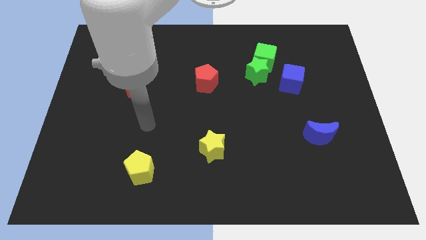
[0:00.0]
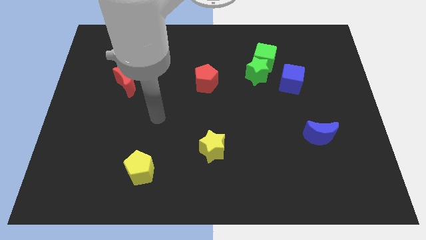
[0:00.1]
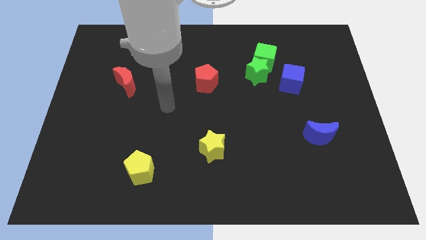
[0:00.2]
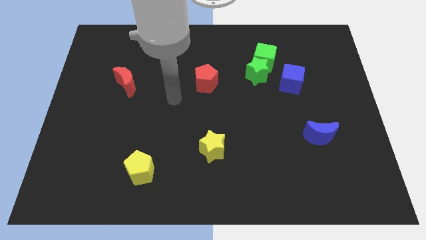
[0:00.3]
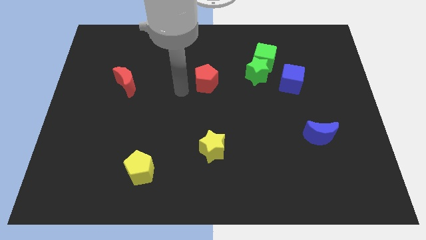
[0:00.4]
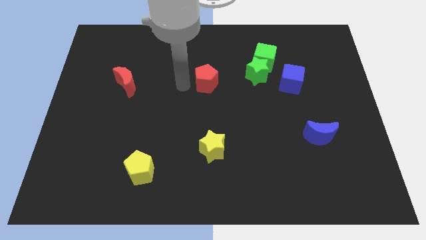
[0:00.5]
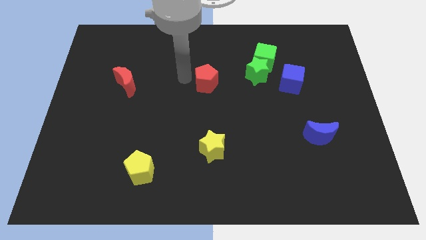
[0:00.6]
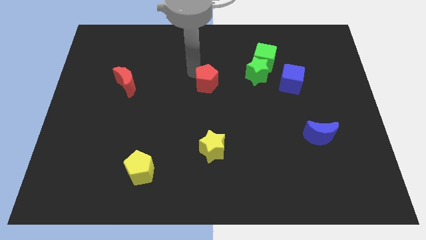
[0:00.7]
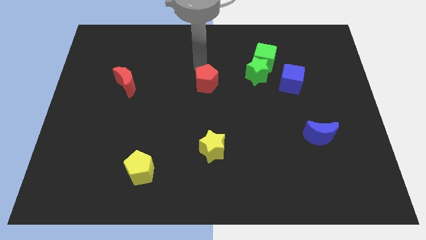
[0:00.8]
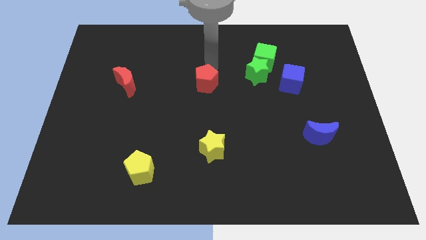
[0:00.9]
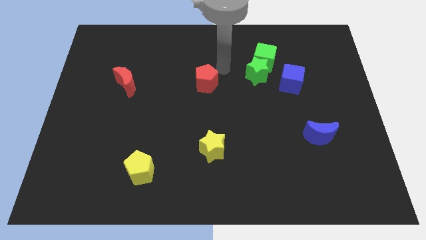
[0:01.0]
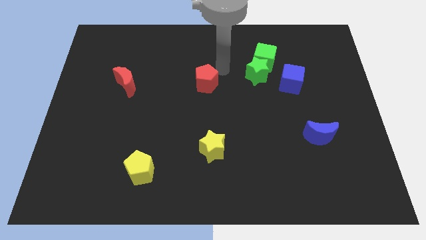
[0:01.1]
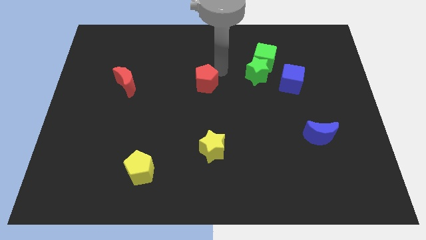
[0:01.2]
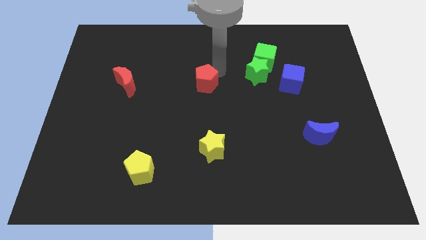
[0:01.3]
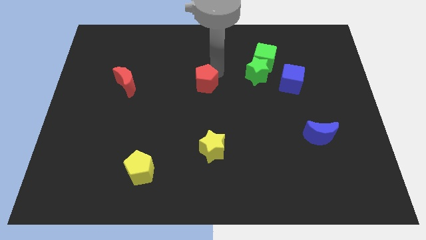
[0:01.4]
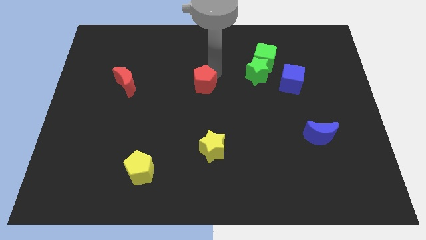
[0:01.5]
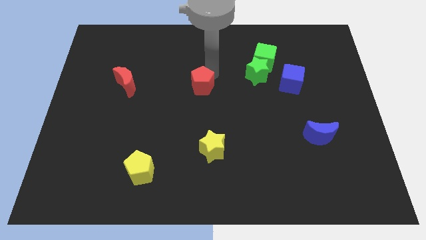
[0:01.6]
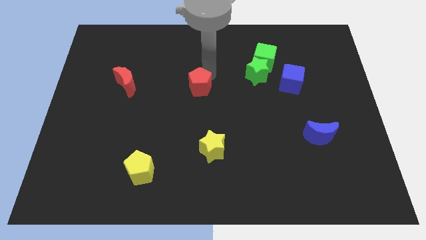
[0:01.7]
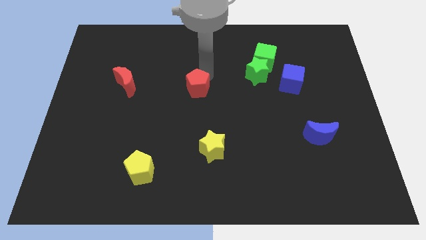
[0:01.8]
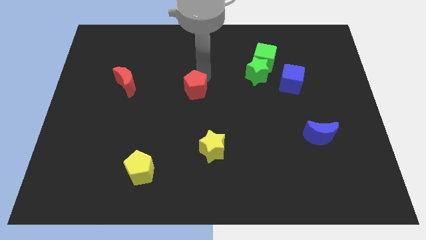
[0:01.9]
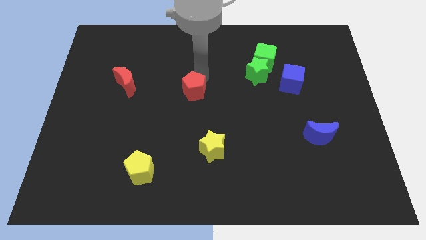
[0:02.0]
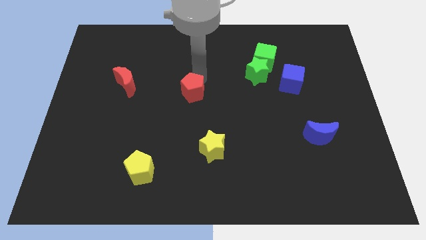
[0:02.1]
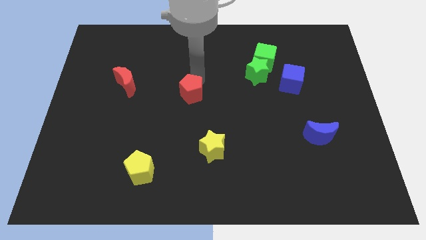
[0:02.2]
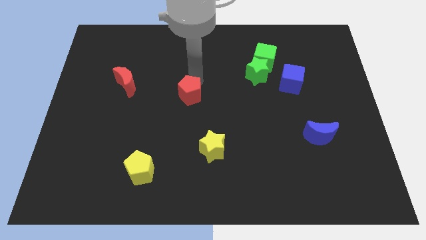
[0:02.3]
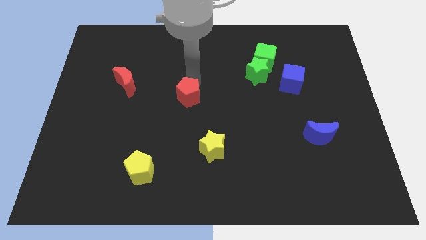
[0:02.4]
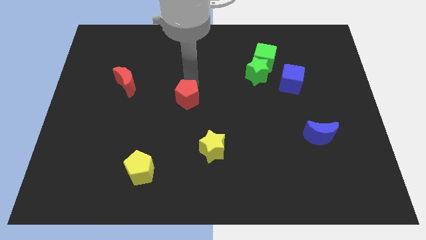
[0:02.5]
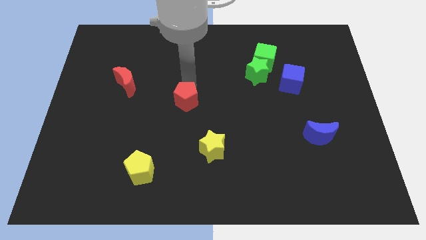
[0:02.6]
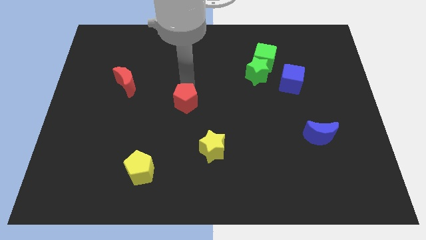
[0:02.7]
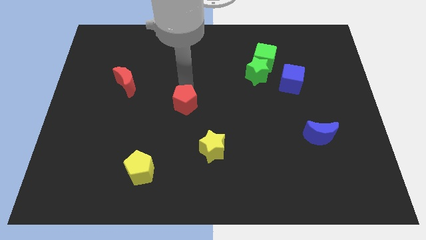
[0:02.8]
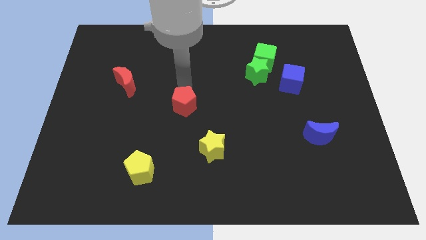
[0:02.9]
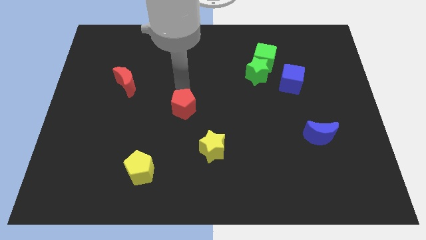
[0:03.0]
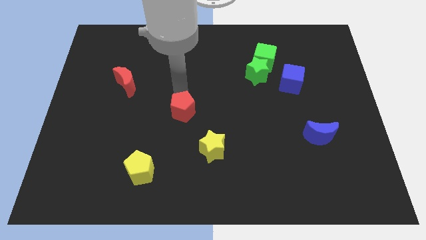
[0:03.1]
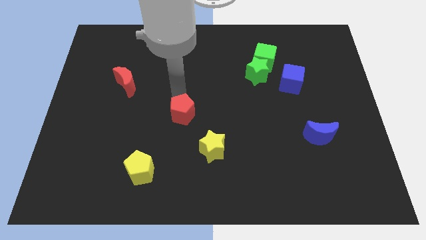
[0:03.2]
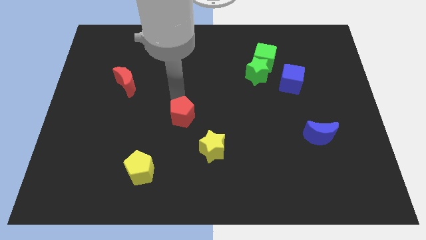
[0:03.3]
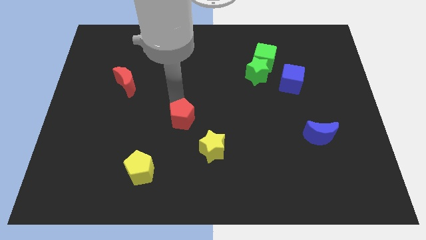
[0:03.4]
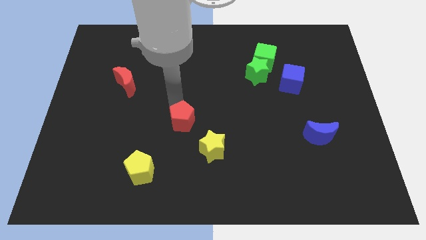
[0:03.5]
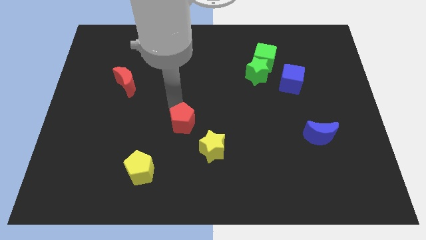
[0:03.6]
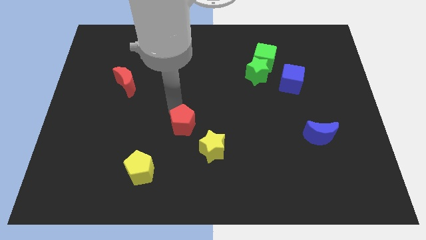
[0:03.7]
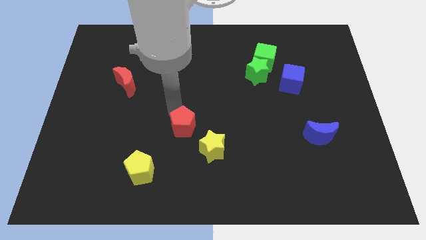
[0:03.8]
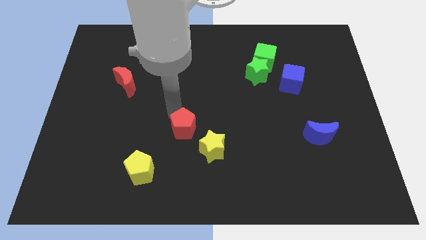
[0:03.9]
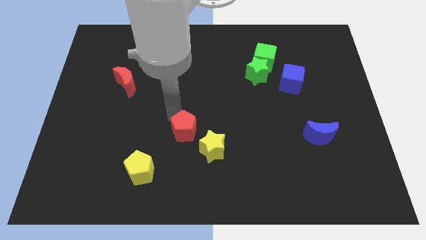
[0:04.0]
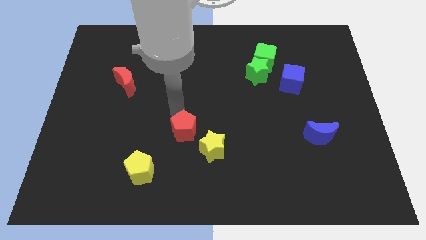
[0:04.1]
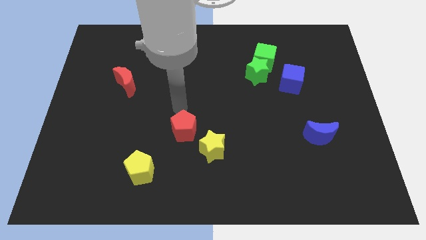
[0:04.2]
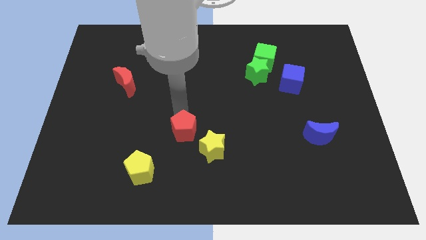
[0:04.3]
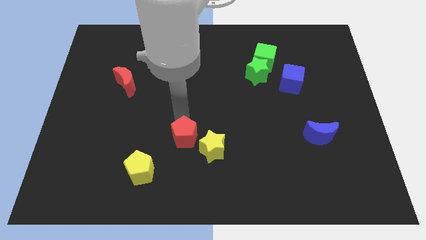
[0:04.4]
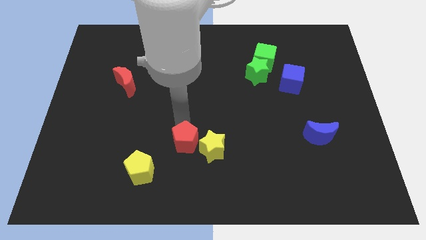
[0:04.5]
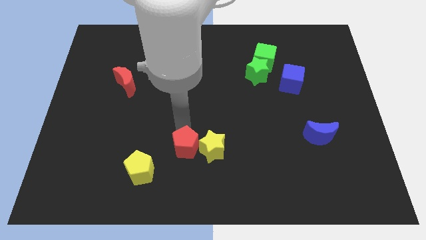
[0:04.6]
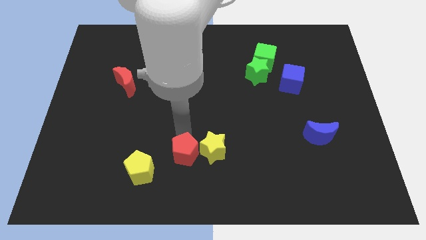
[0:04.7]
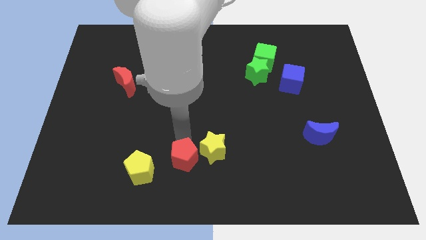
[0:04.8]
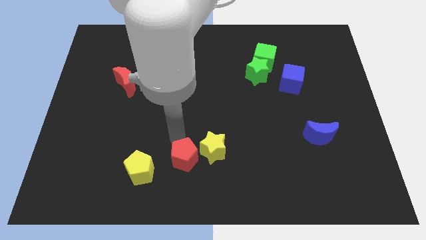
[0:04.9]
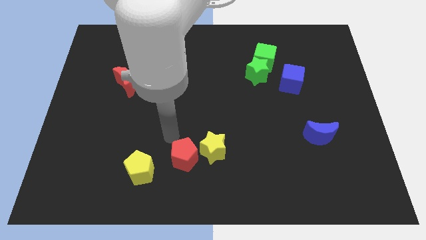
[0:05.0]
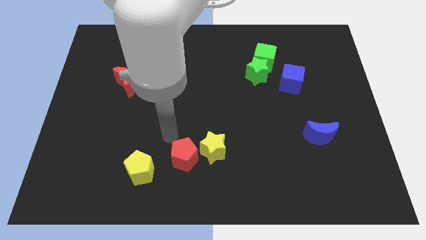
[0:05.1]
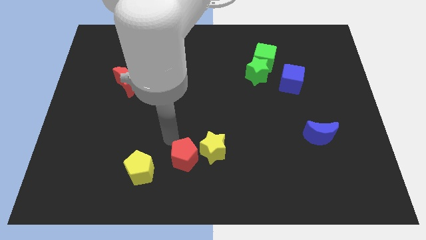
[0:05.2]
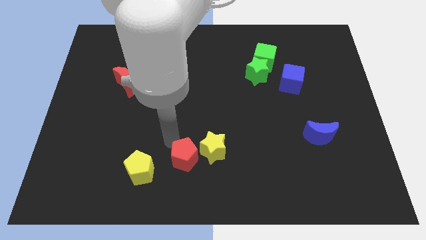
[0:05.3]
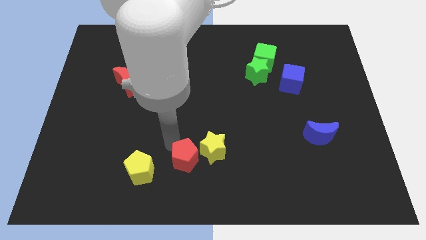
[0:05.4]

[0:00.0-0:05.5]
slide the red pentagon to the bottom side

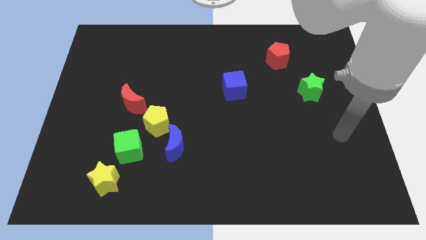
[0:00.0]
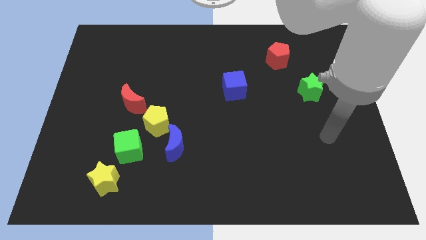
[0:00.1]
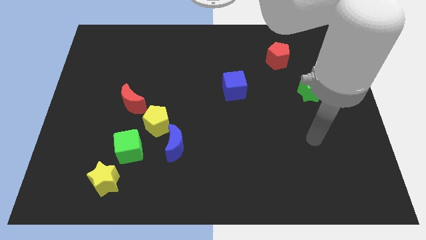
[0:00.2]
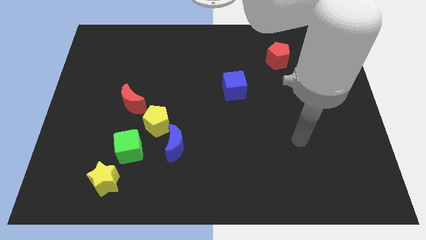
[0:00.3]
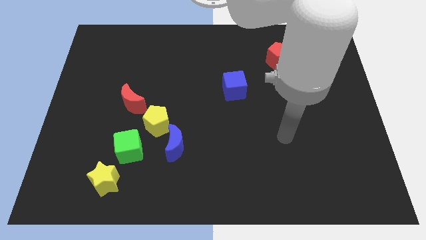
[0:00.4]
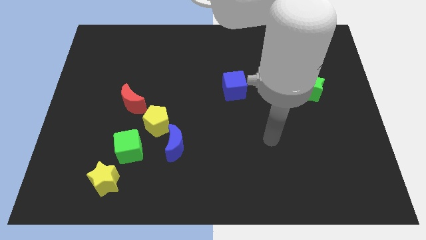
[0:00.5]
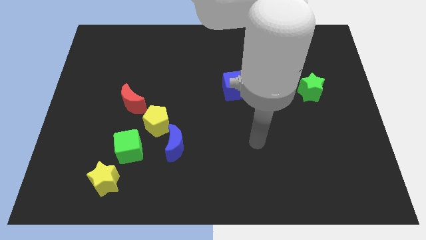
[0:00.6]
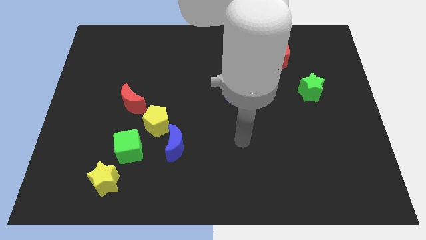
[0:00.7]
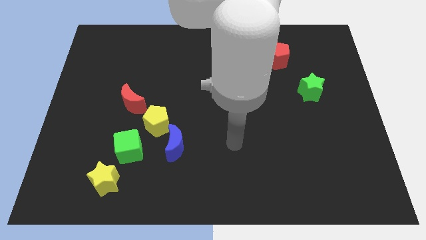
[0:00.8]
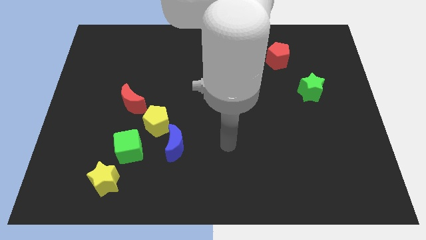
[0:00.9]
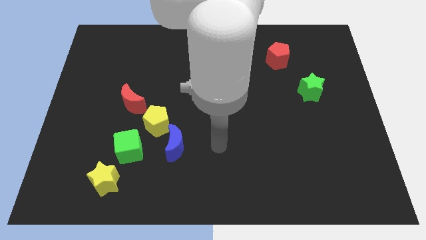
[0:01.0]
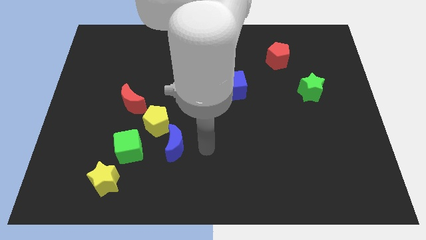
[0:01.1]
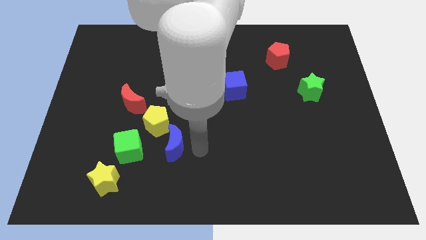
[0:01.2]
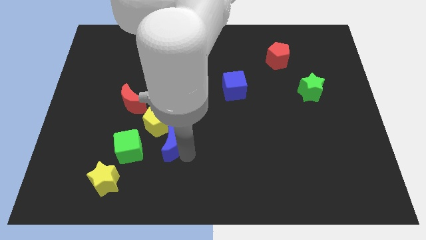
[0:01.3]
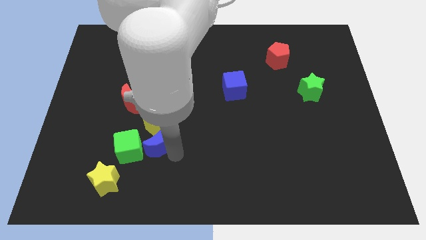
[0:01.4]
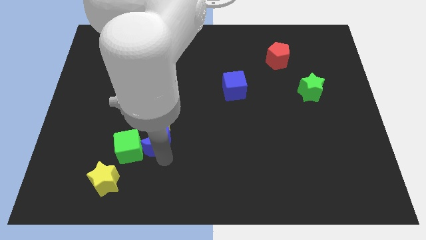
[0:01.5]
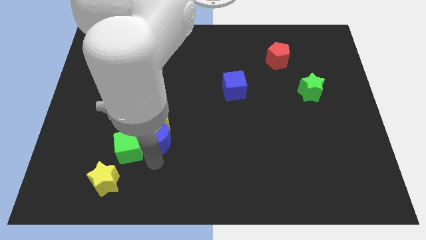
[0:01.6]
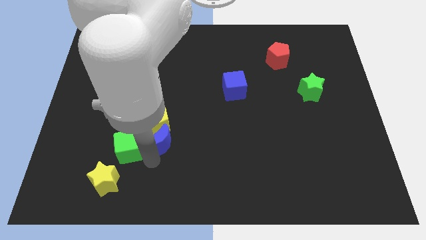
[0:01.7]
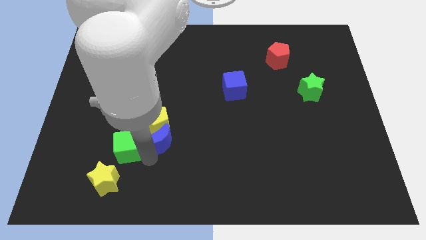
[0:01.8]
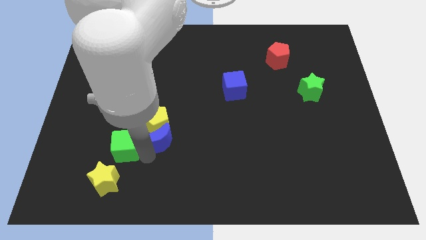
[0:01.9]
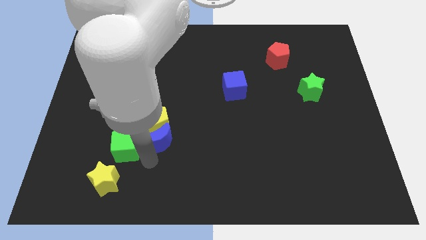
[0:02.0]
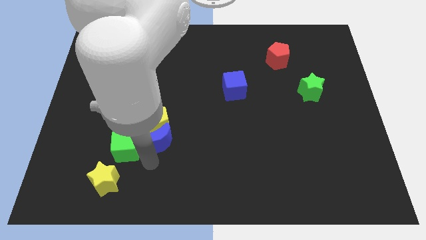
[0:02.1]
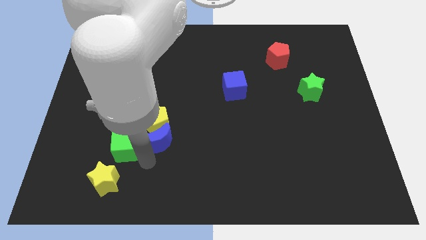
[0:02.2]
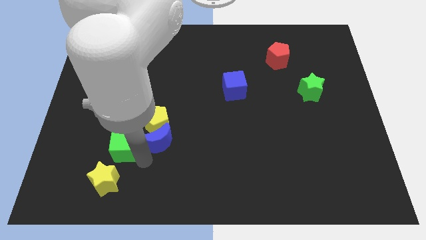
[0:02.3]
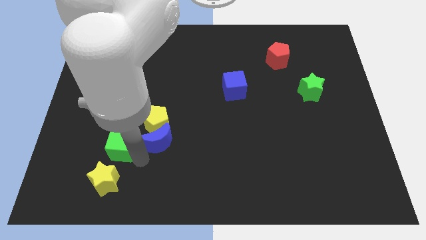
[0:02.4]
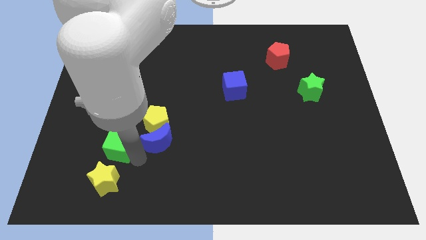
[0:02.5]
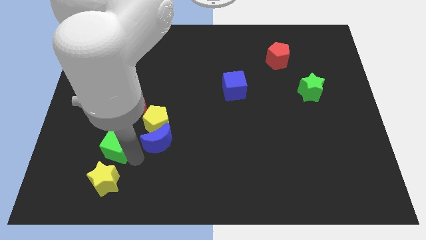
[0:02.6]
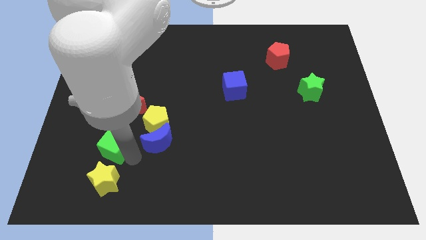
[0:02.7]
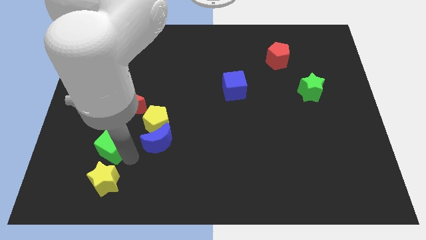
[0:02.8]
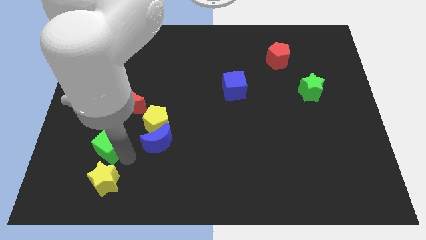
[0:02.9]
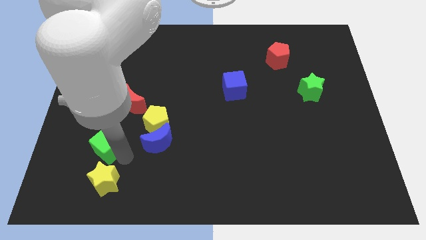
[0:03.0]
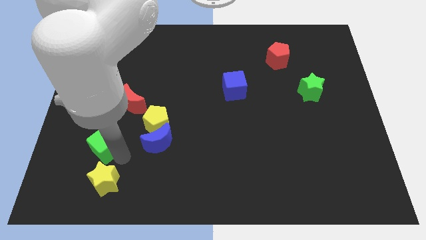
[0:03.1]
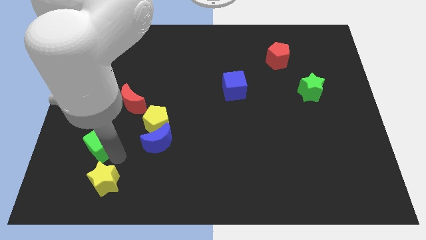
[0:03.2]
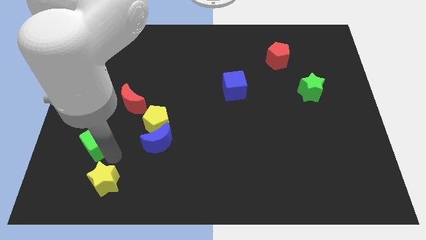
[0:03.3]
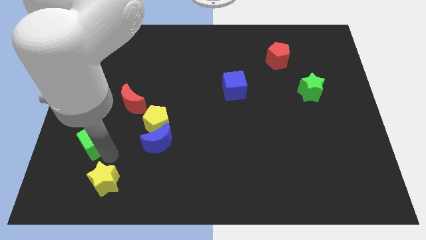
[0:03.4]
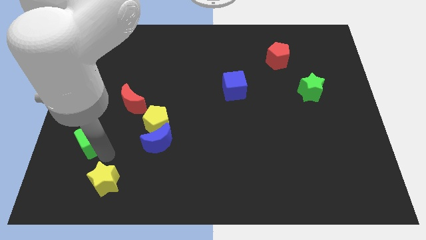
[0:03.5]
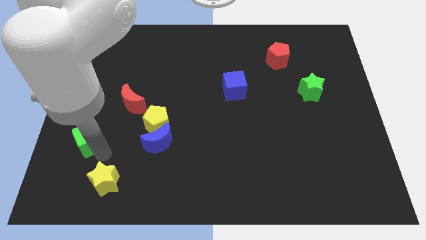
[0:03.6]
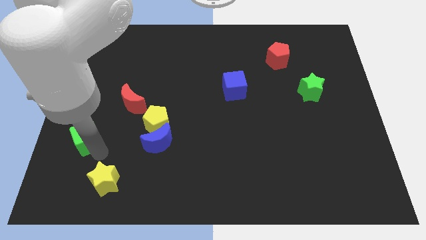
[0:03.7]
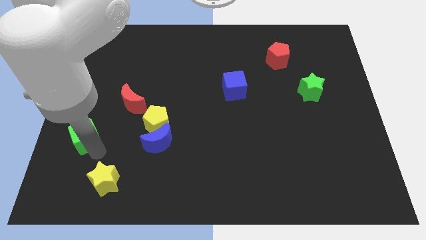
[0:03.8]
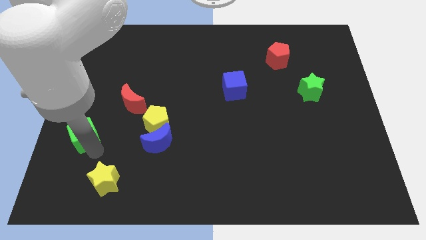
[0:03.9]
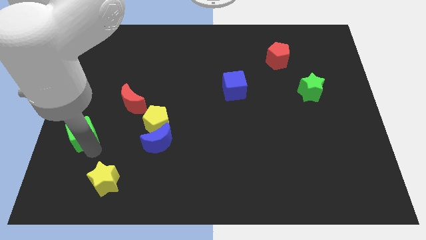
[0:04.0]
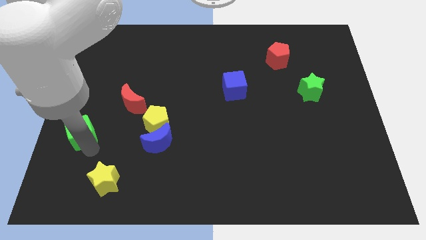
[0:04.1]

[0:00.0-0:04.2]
slide the green cube to the center left
